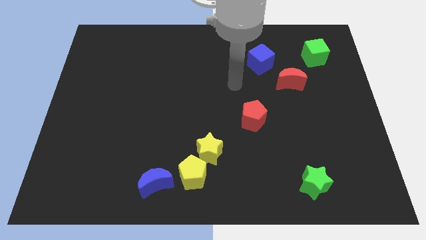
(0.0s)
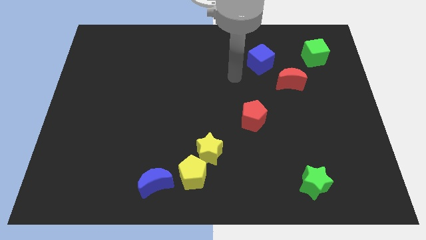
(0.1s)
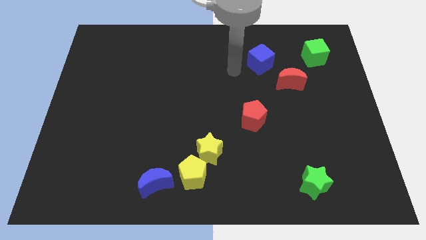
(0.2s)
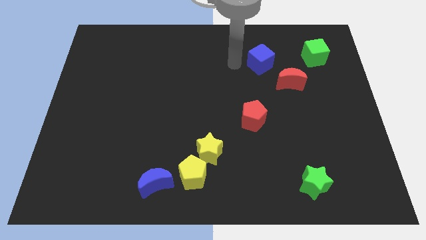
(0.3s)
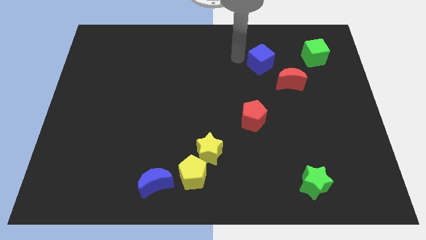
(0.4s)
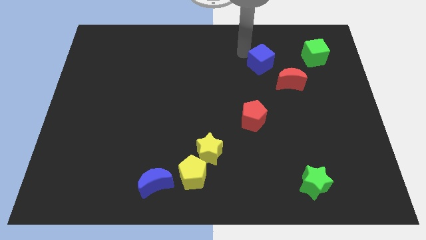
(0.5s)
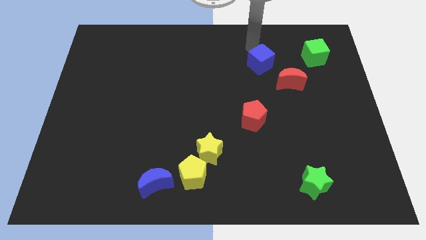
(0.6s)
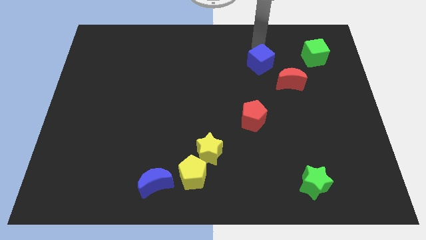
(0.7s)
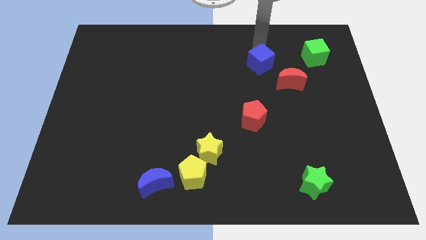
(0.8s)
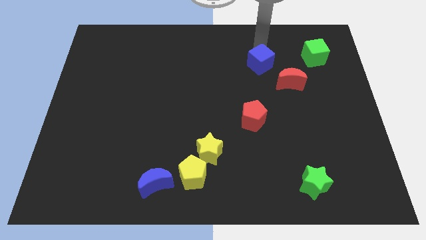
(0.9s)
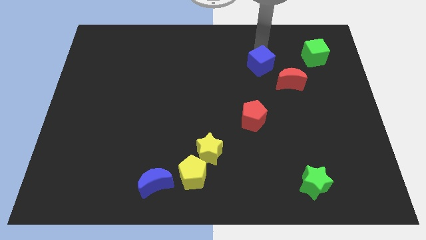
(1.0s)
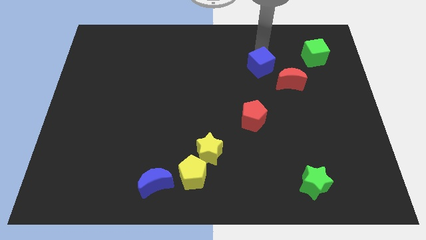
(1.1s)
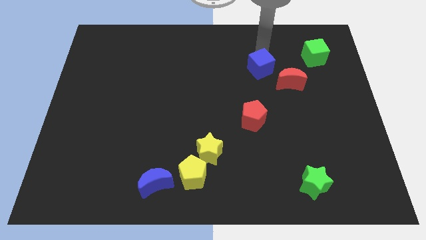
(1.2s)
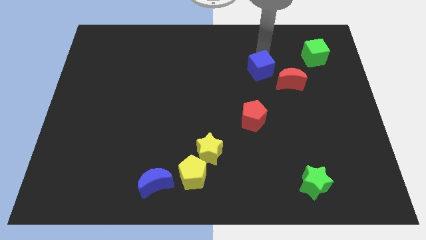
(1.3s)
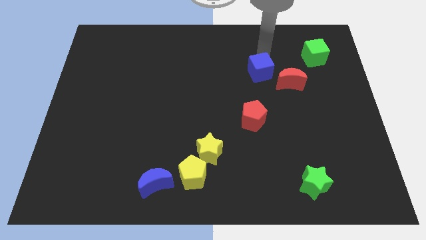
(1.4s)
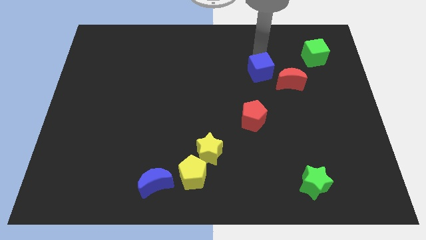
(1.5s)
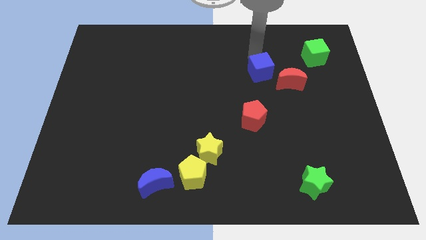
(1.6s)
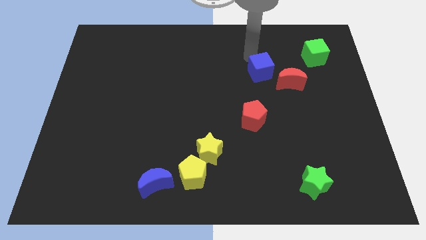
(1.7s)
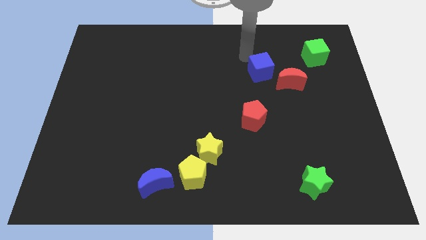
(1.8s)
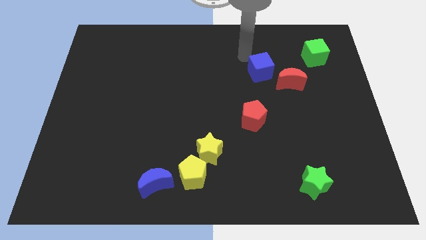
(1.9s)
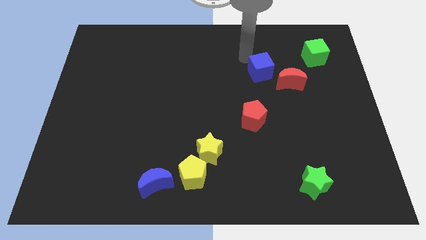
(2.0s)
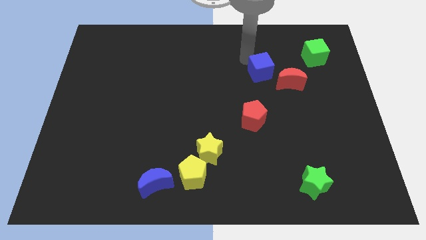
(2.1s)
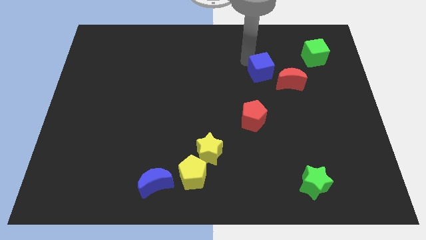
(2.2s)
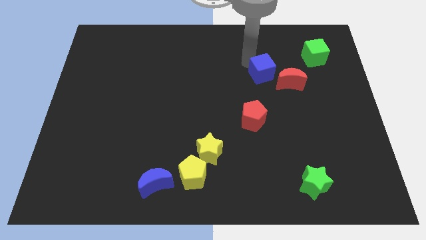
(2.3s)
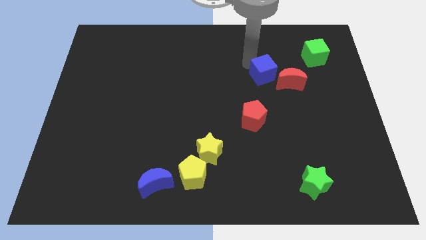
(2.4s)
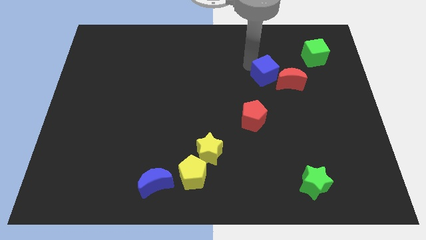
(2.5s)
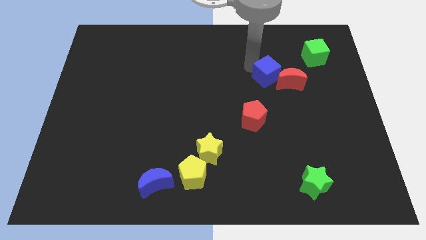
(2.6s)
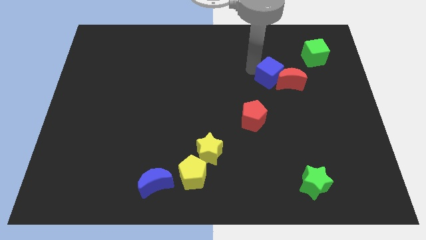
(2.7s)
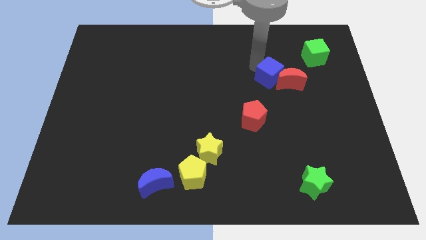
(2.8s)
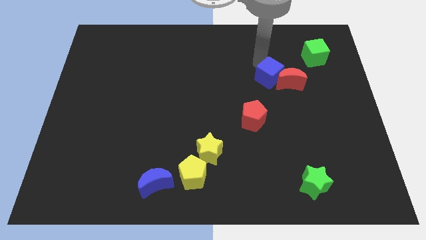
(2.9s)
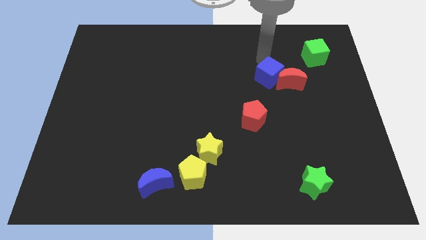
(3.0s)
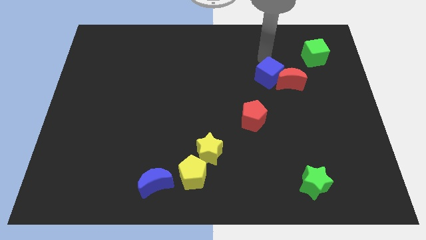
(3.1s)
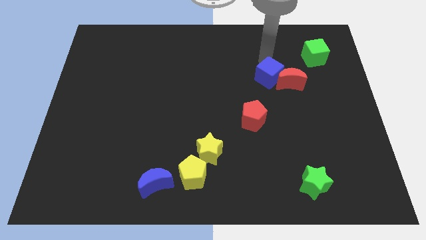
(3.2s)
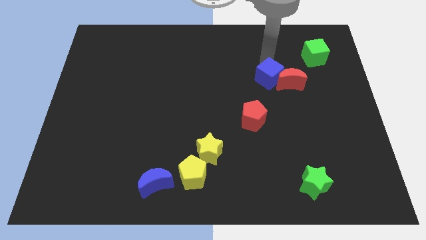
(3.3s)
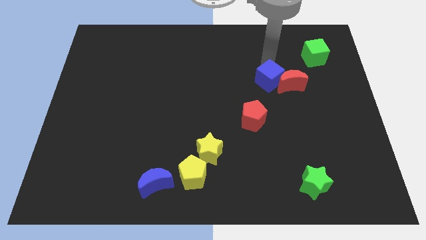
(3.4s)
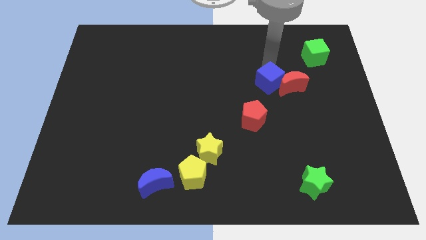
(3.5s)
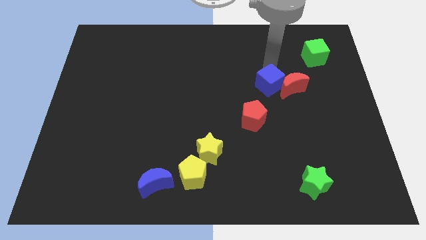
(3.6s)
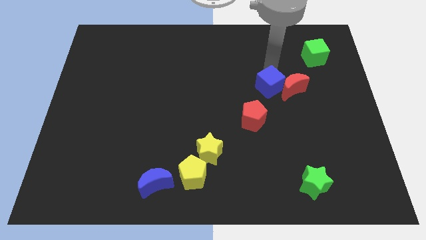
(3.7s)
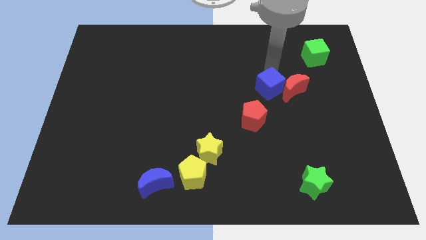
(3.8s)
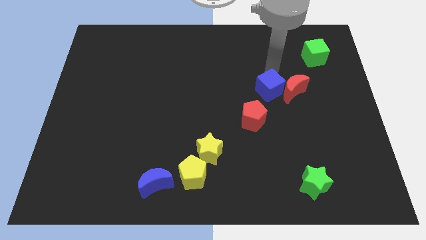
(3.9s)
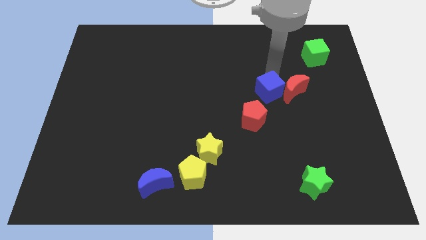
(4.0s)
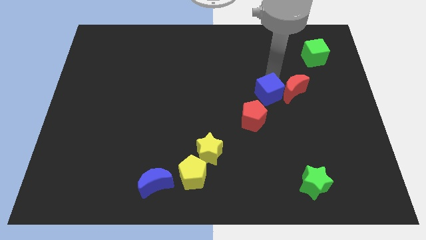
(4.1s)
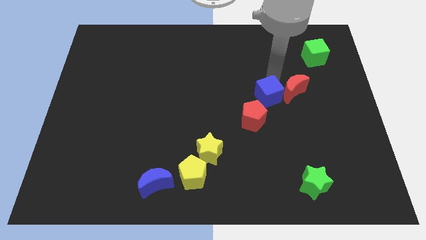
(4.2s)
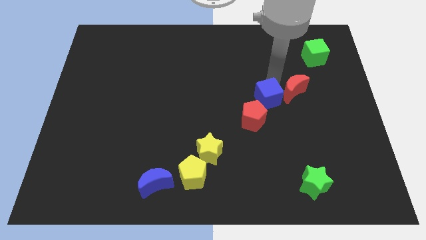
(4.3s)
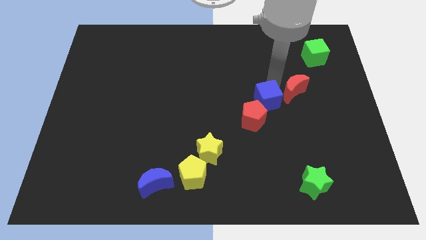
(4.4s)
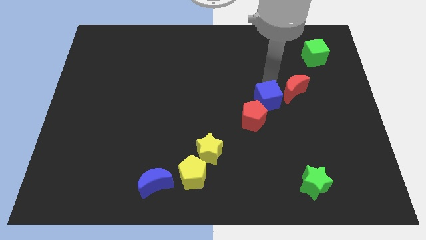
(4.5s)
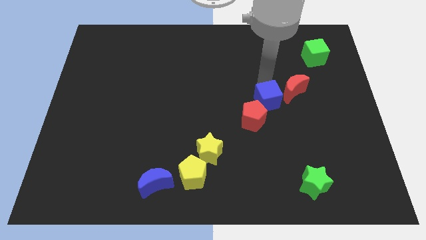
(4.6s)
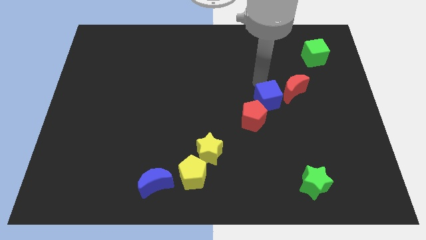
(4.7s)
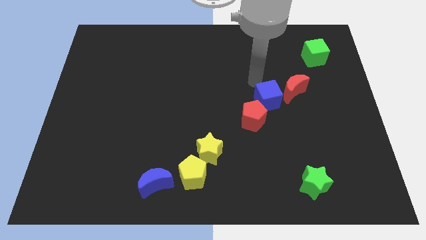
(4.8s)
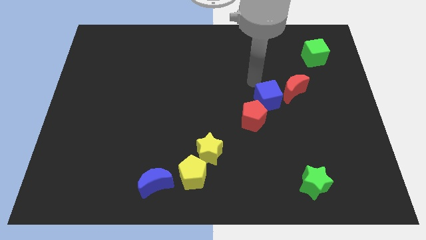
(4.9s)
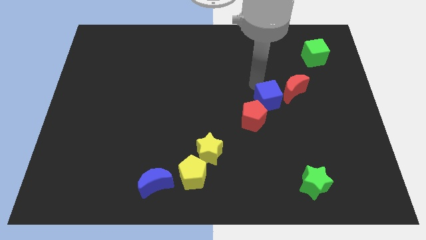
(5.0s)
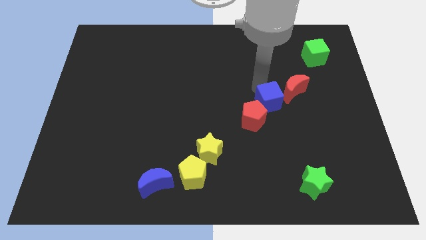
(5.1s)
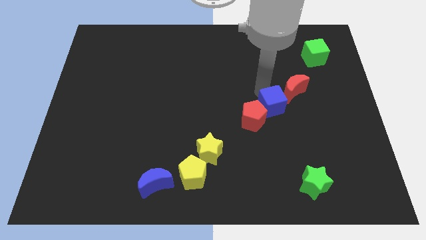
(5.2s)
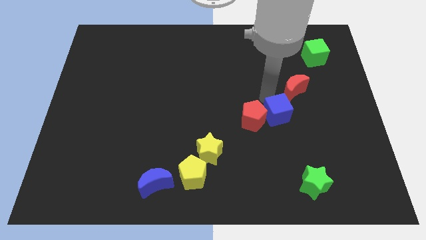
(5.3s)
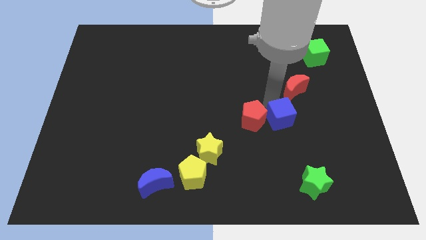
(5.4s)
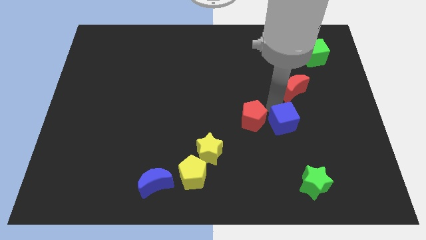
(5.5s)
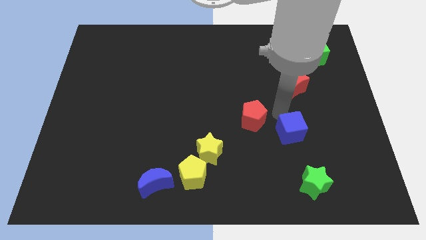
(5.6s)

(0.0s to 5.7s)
push the blue cube down

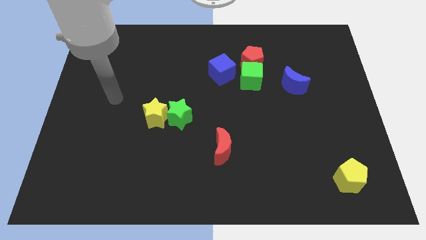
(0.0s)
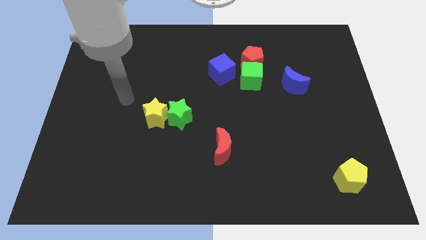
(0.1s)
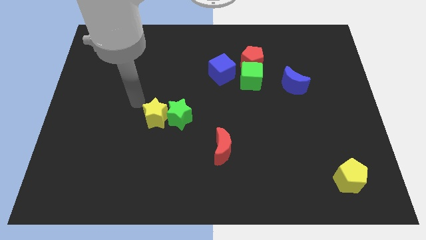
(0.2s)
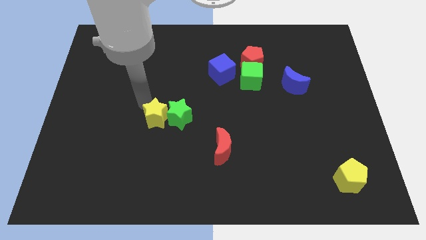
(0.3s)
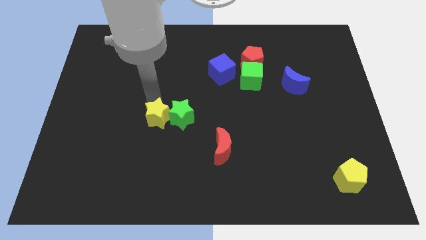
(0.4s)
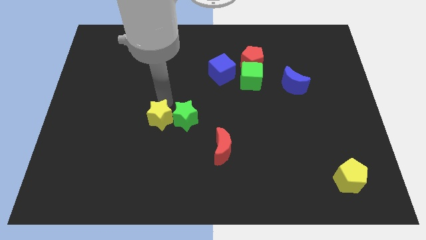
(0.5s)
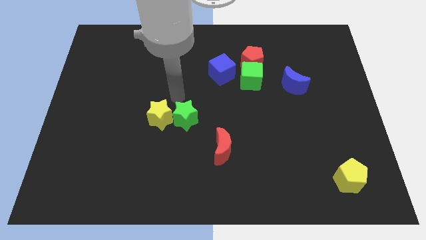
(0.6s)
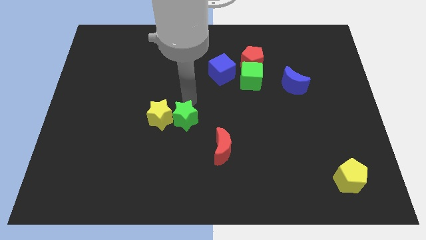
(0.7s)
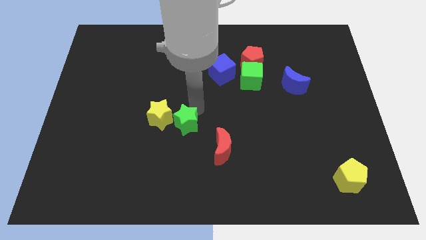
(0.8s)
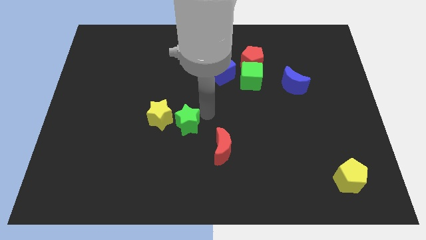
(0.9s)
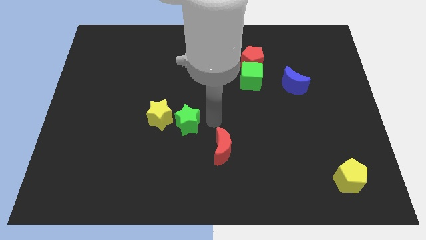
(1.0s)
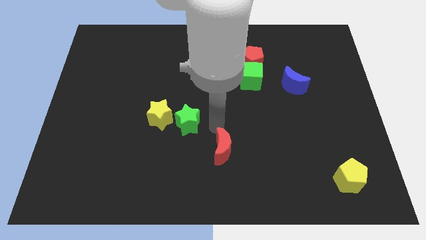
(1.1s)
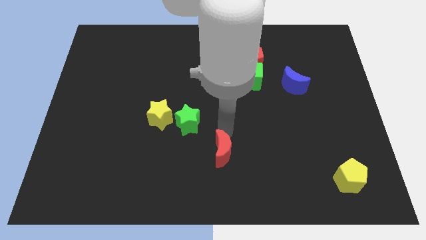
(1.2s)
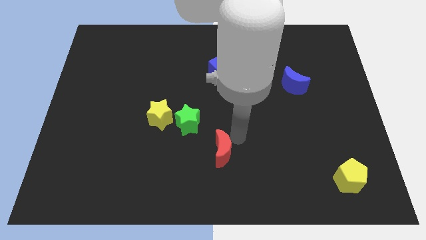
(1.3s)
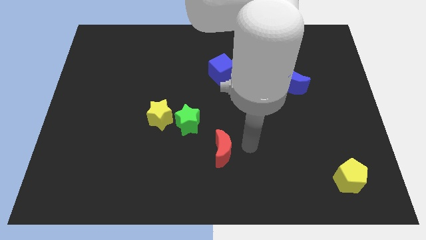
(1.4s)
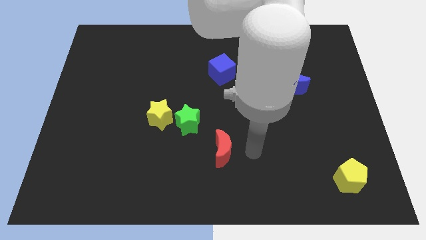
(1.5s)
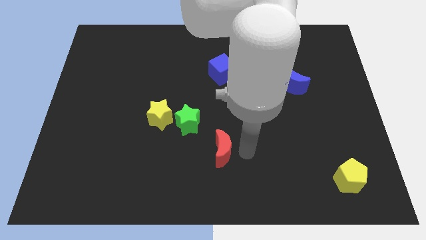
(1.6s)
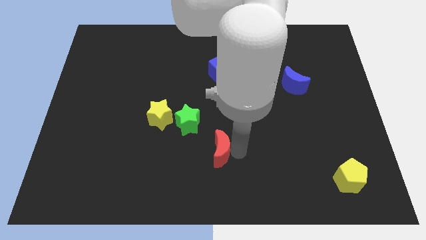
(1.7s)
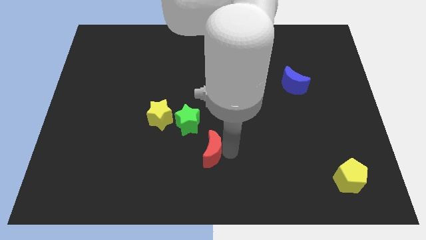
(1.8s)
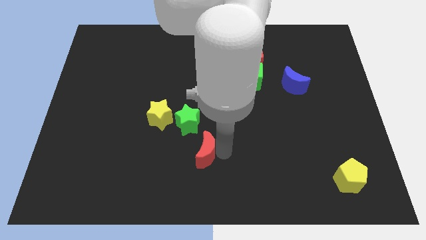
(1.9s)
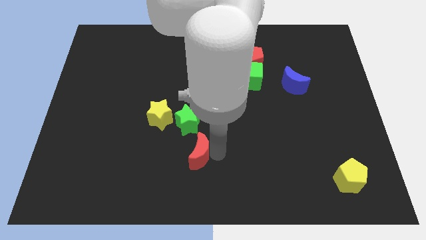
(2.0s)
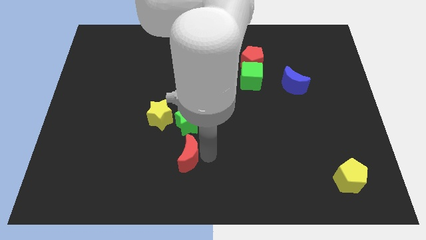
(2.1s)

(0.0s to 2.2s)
slide the red moon a little bit to the left
